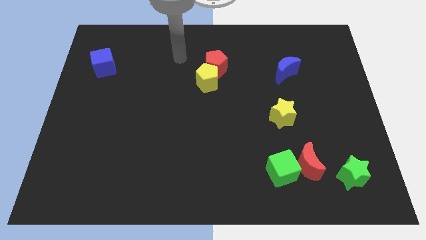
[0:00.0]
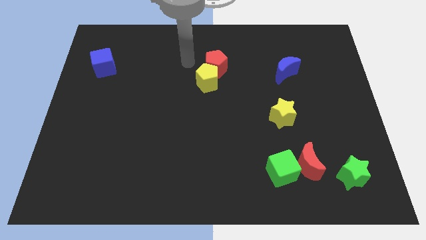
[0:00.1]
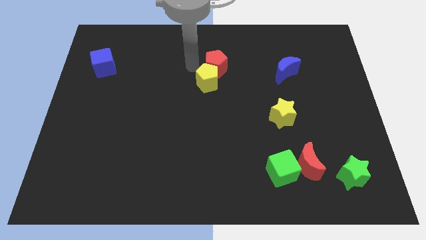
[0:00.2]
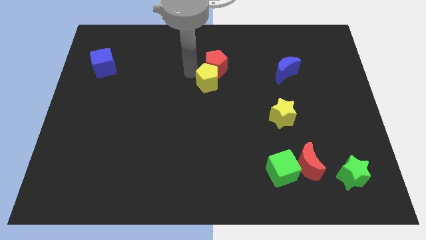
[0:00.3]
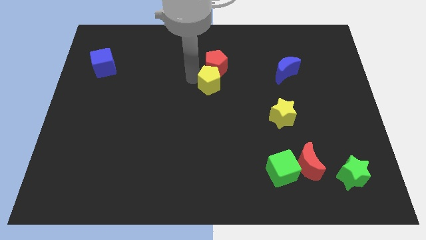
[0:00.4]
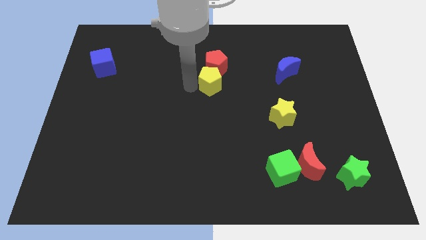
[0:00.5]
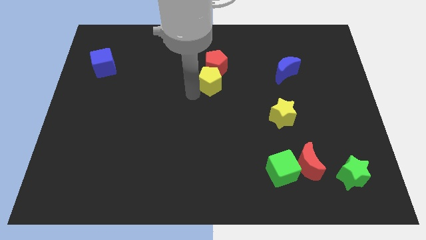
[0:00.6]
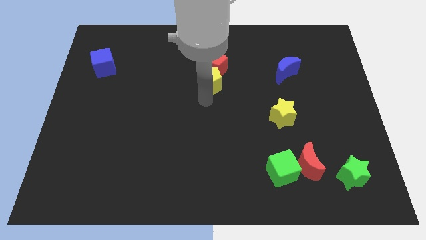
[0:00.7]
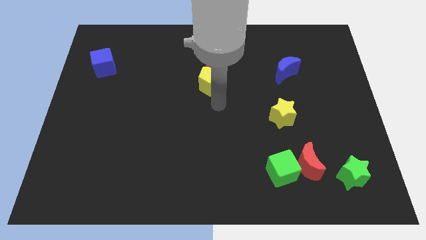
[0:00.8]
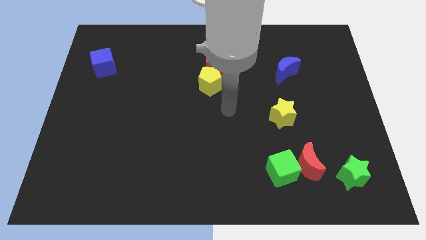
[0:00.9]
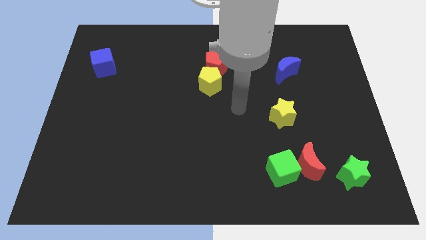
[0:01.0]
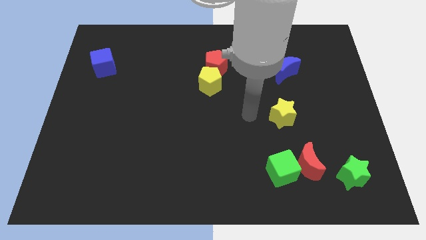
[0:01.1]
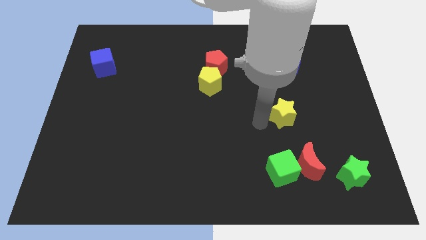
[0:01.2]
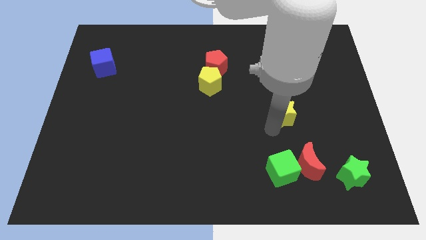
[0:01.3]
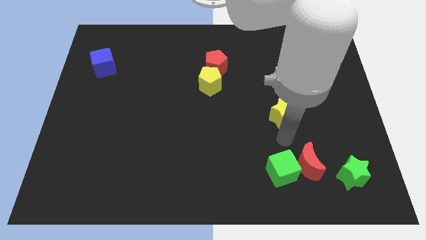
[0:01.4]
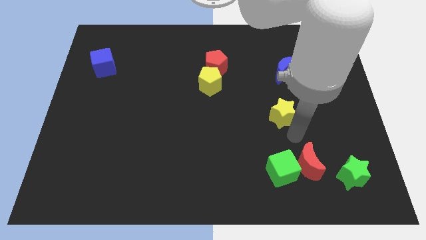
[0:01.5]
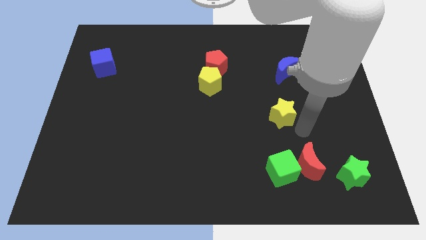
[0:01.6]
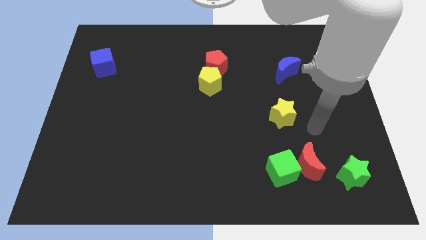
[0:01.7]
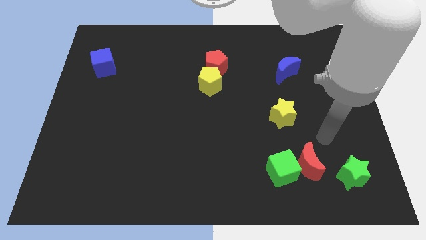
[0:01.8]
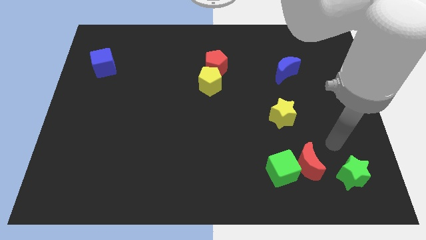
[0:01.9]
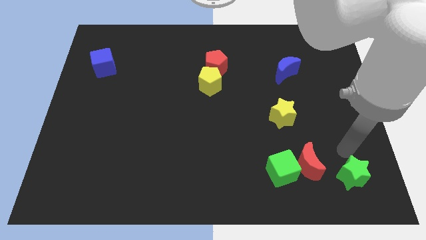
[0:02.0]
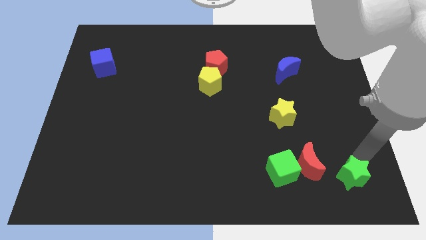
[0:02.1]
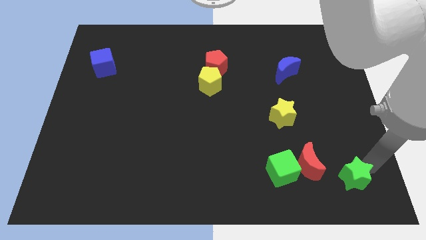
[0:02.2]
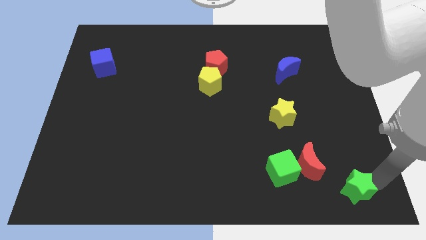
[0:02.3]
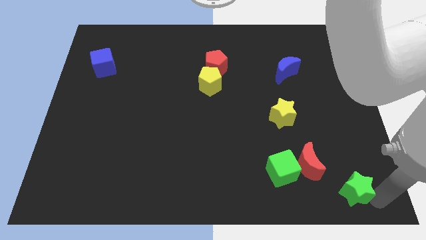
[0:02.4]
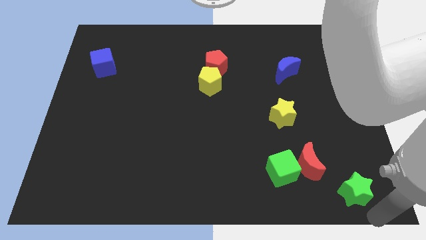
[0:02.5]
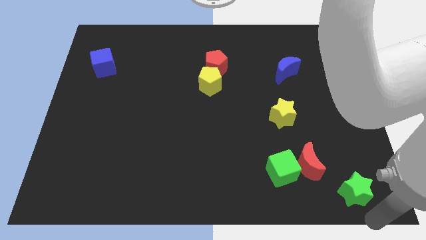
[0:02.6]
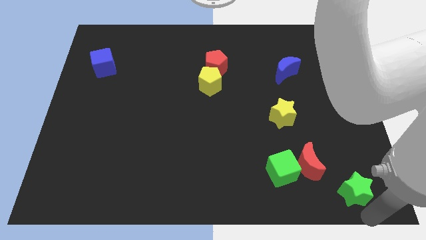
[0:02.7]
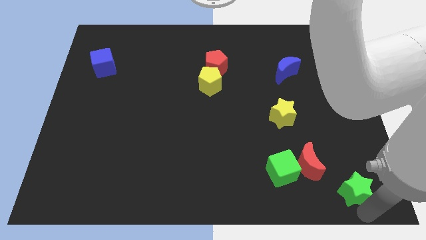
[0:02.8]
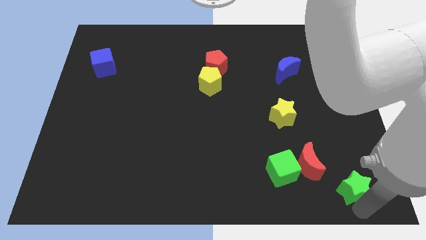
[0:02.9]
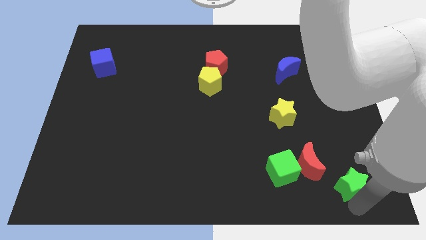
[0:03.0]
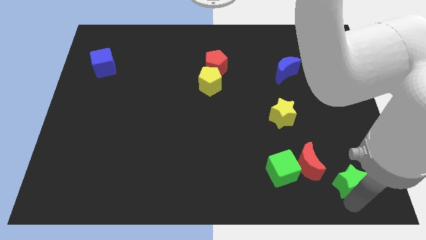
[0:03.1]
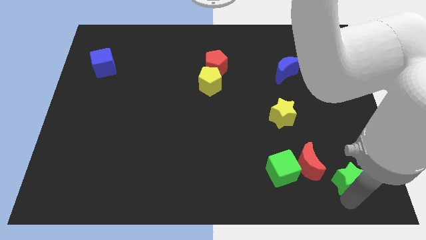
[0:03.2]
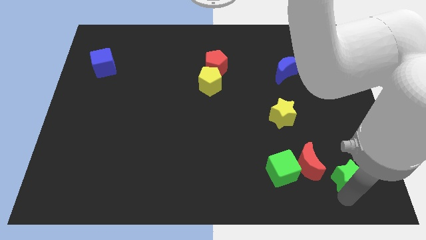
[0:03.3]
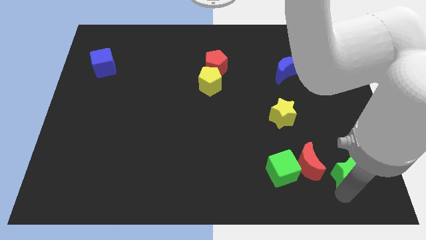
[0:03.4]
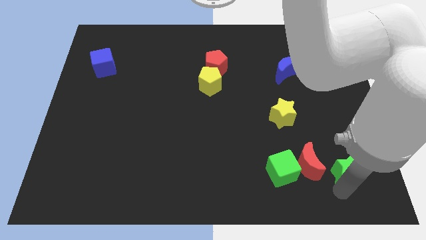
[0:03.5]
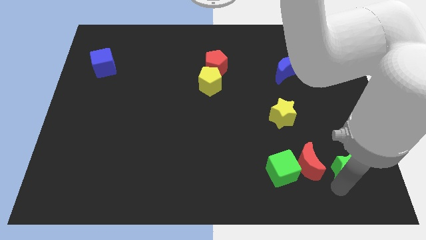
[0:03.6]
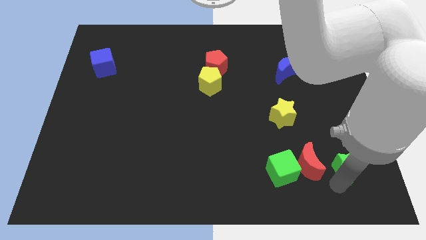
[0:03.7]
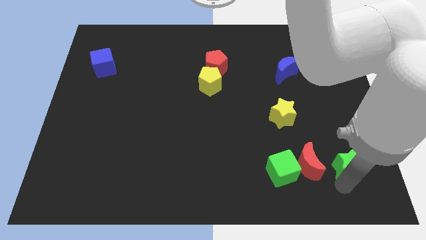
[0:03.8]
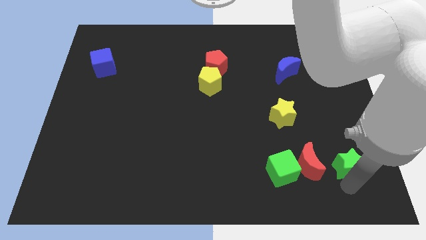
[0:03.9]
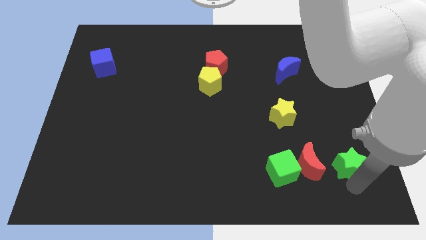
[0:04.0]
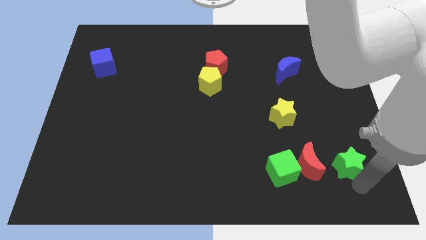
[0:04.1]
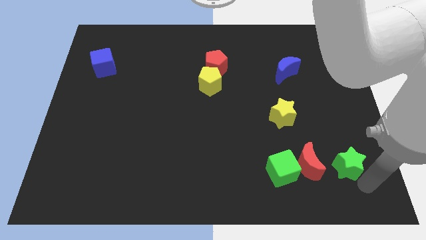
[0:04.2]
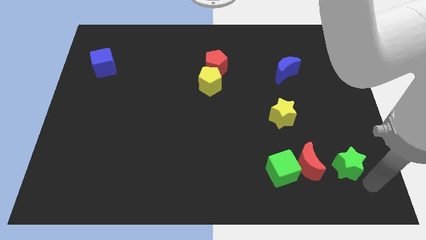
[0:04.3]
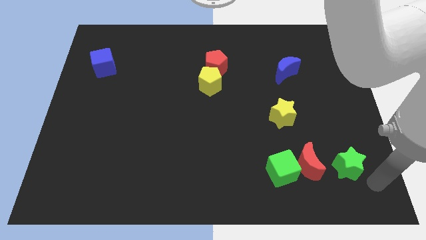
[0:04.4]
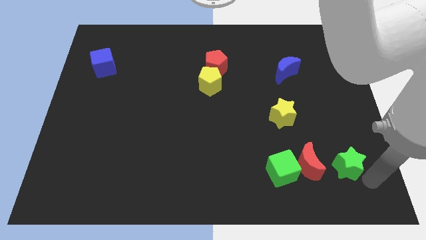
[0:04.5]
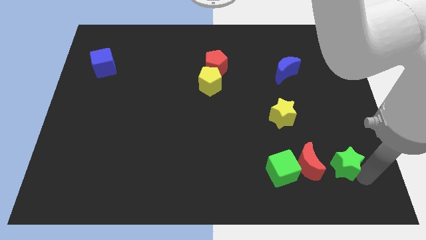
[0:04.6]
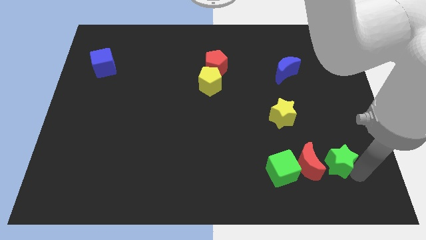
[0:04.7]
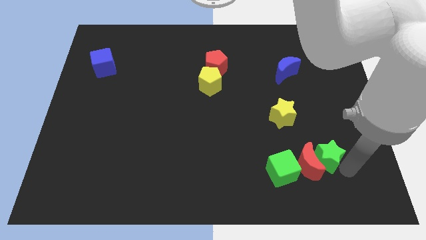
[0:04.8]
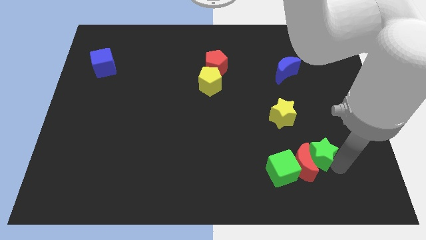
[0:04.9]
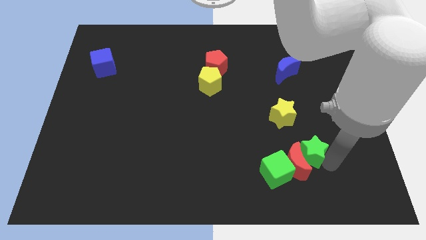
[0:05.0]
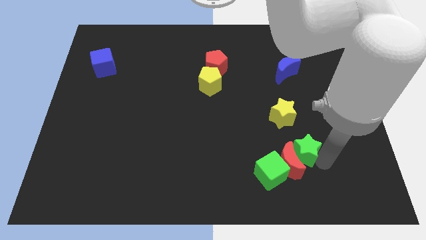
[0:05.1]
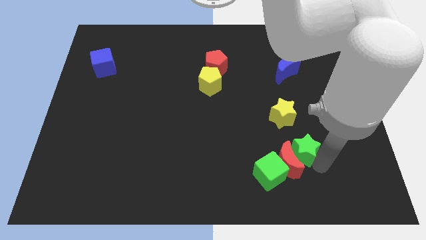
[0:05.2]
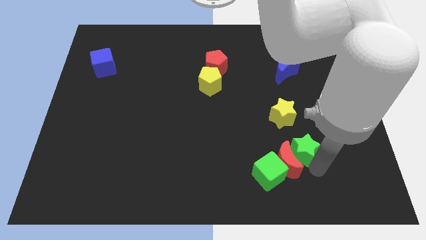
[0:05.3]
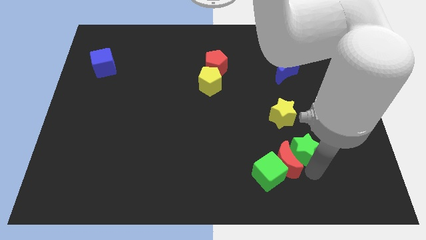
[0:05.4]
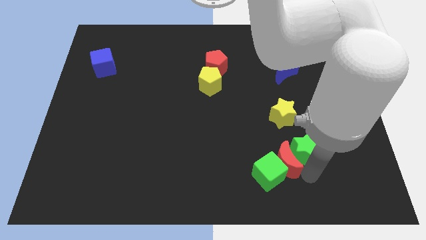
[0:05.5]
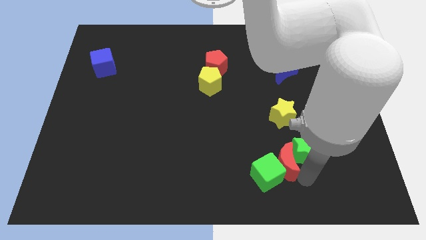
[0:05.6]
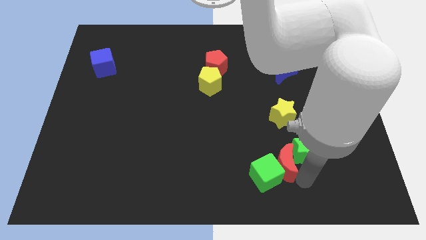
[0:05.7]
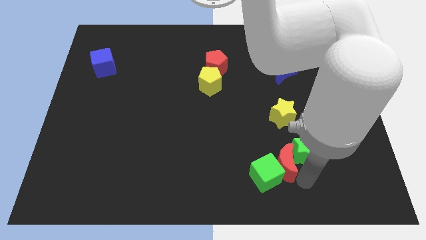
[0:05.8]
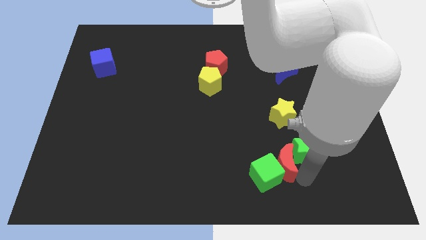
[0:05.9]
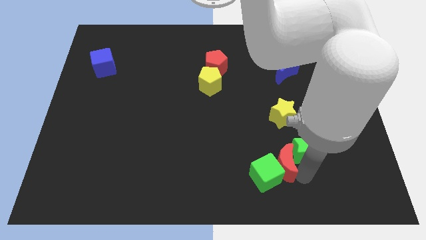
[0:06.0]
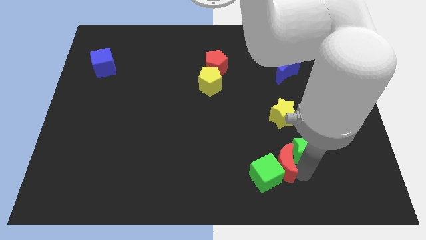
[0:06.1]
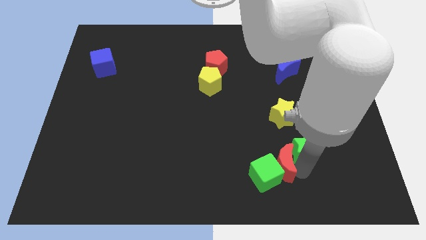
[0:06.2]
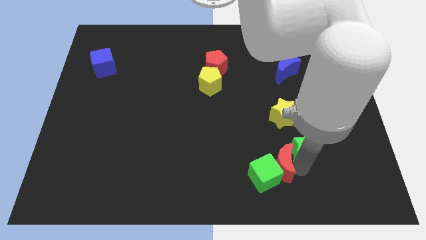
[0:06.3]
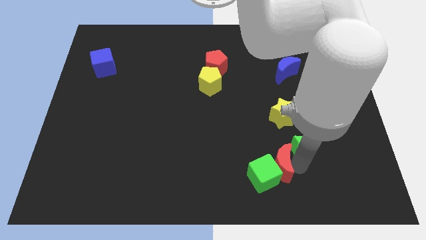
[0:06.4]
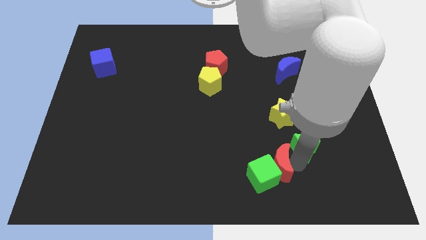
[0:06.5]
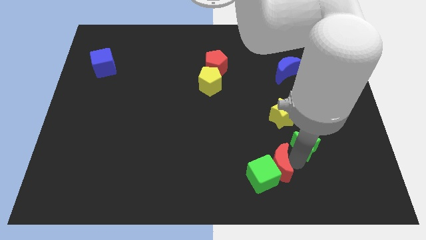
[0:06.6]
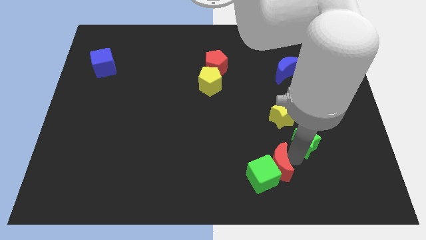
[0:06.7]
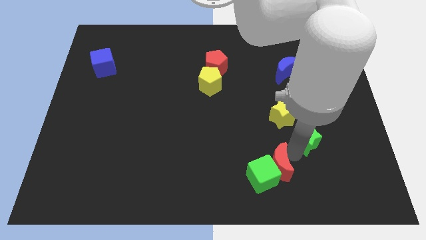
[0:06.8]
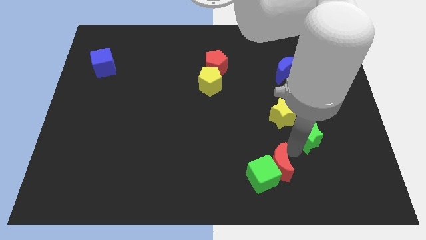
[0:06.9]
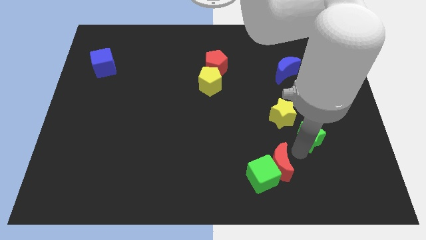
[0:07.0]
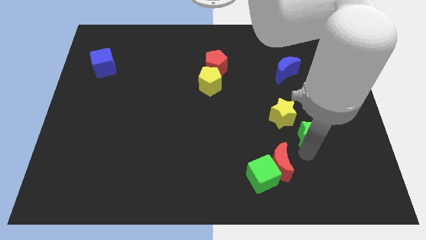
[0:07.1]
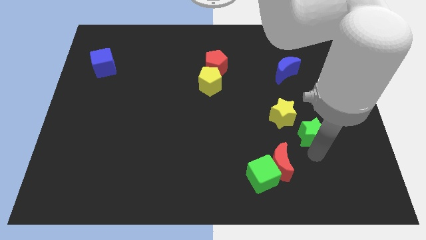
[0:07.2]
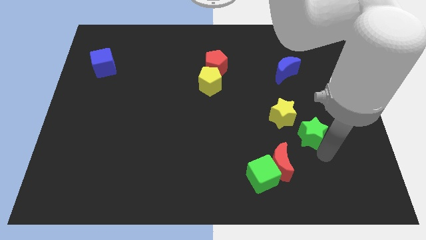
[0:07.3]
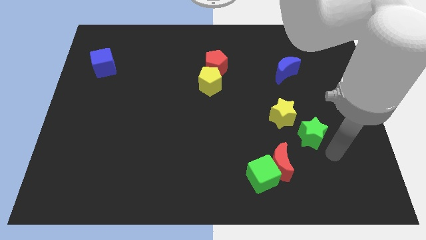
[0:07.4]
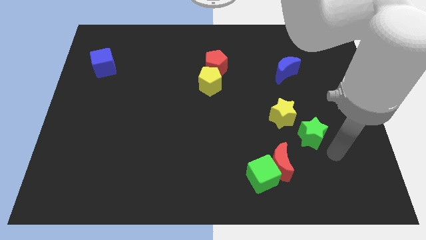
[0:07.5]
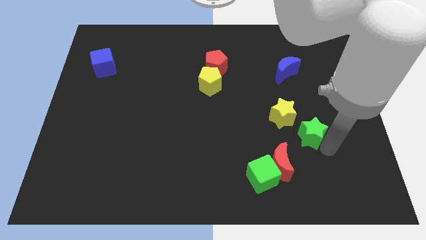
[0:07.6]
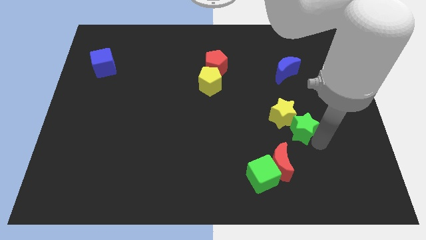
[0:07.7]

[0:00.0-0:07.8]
slide the green star close to the yellow star
